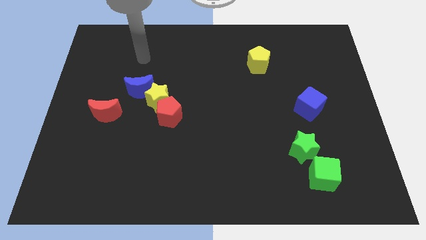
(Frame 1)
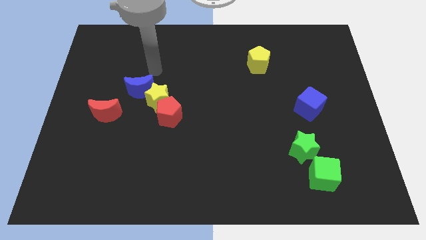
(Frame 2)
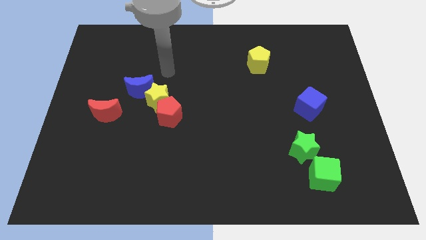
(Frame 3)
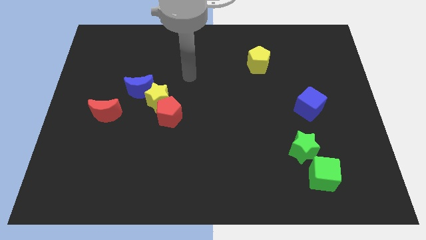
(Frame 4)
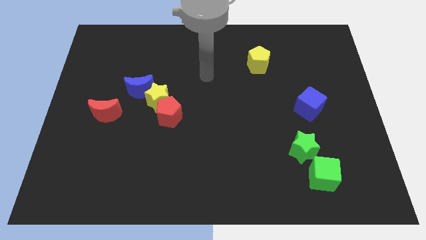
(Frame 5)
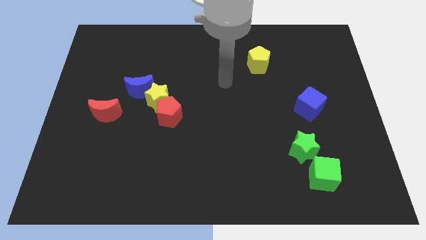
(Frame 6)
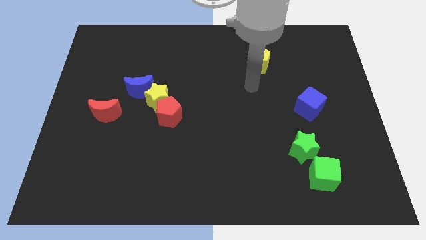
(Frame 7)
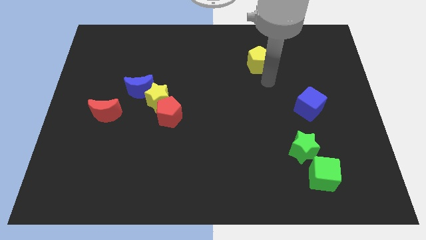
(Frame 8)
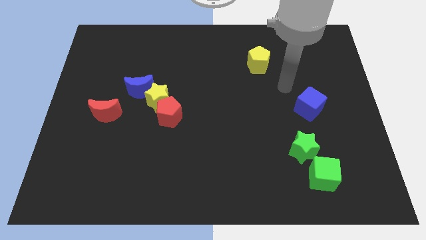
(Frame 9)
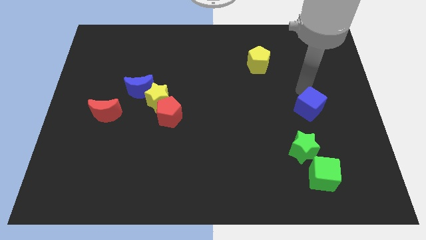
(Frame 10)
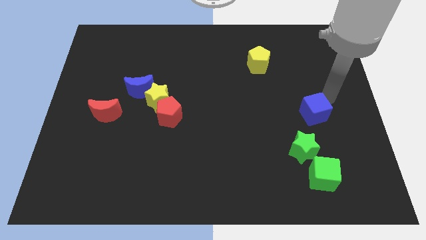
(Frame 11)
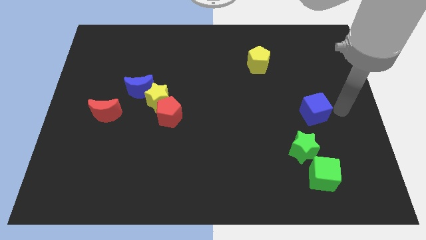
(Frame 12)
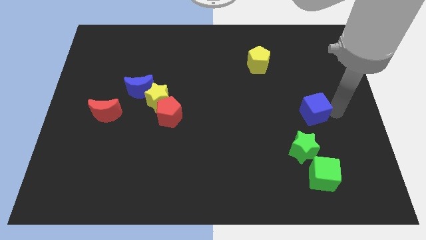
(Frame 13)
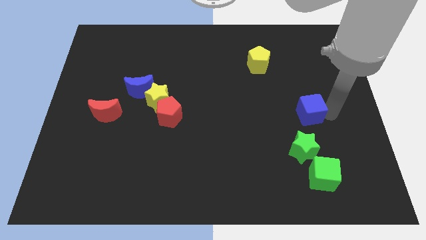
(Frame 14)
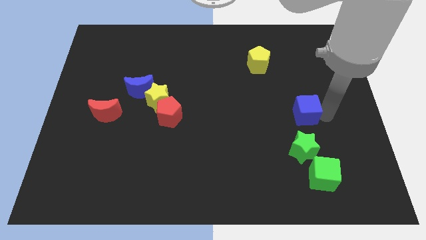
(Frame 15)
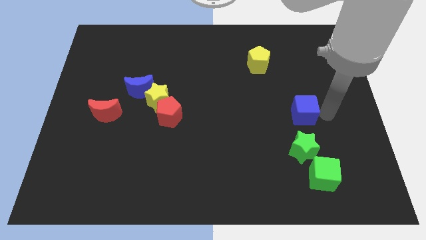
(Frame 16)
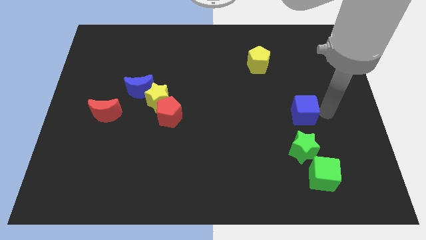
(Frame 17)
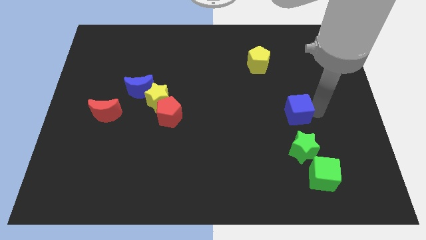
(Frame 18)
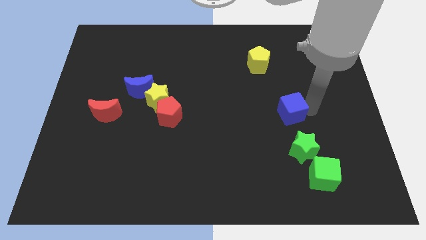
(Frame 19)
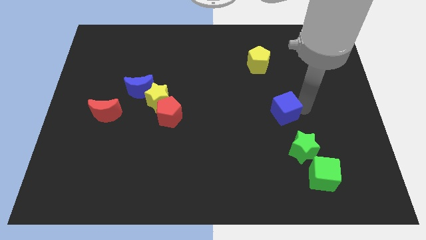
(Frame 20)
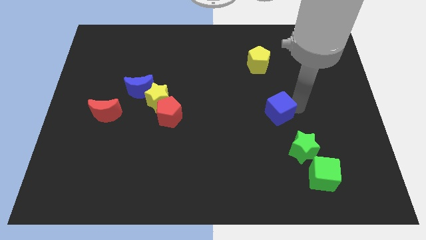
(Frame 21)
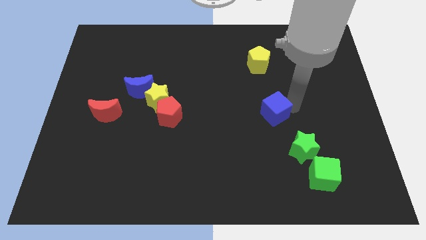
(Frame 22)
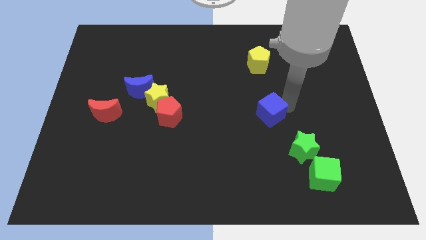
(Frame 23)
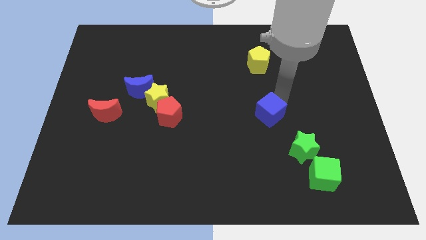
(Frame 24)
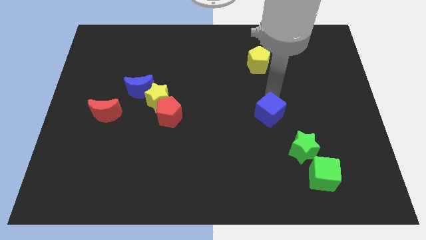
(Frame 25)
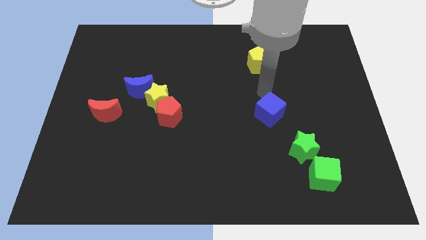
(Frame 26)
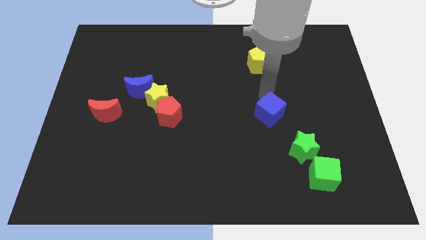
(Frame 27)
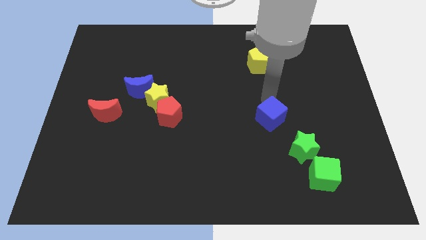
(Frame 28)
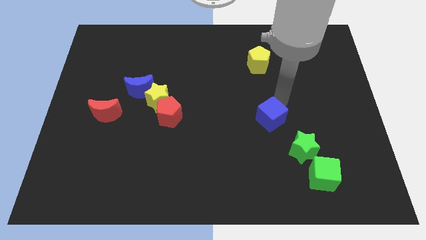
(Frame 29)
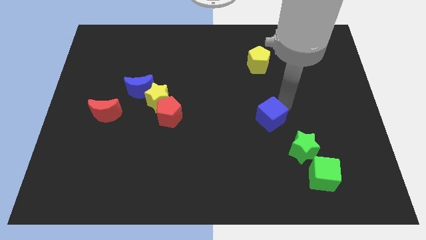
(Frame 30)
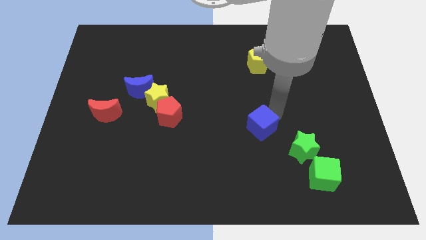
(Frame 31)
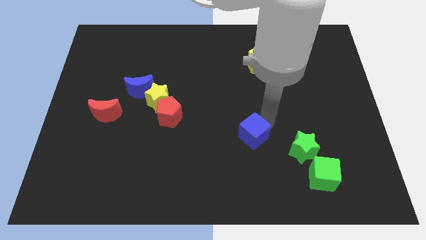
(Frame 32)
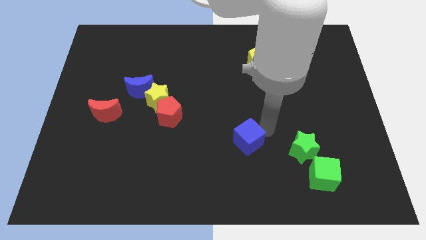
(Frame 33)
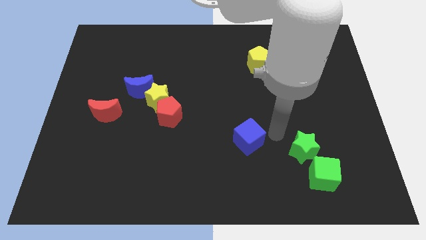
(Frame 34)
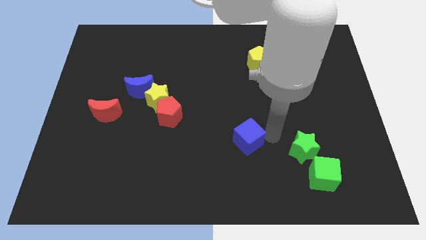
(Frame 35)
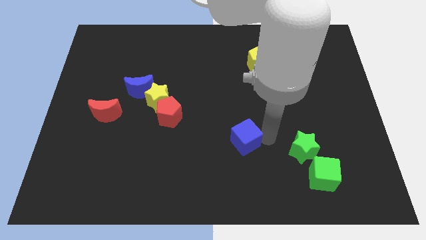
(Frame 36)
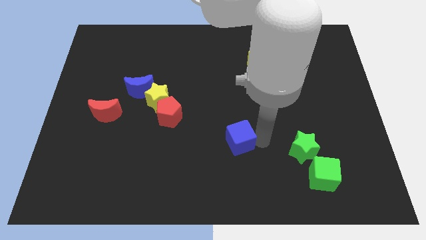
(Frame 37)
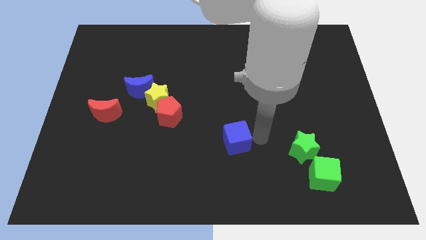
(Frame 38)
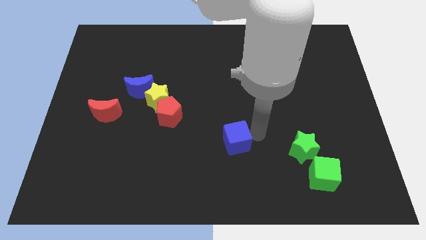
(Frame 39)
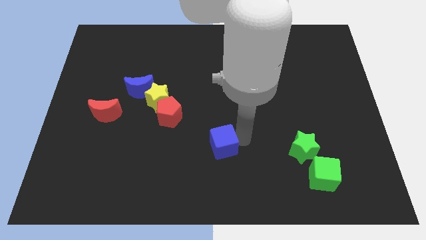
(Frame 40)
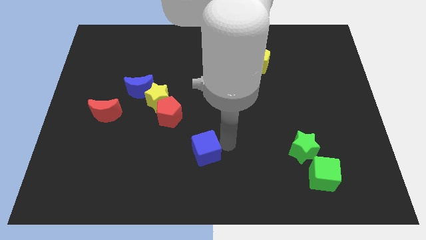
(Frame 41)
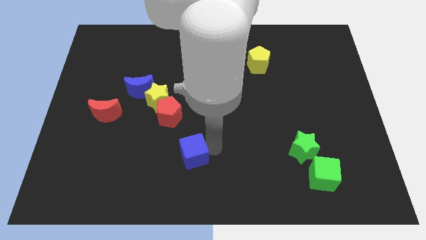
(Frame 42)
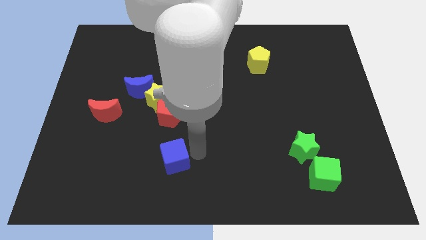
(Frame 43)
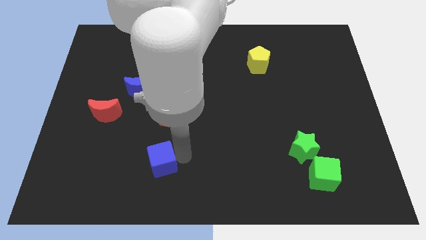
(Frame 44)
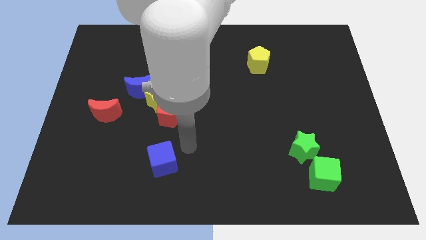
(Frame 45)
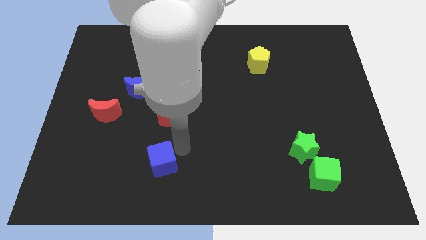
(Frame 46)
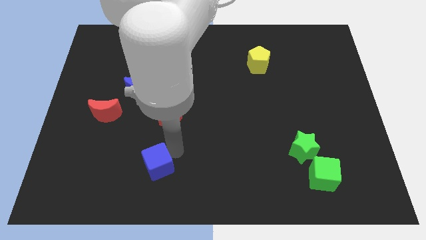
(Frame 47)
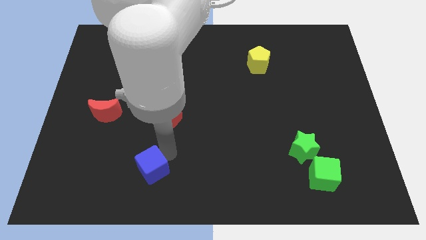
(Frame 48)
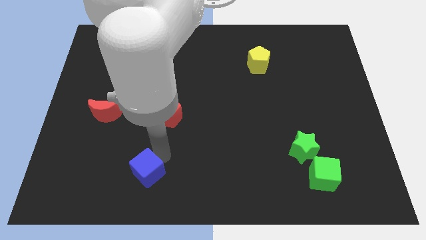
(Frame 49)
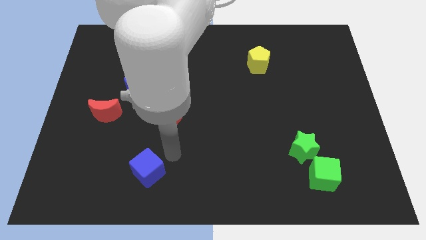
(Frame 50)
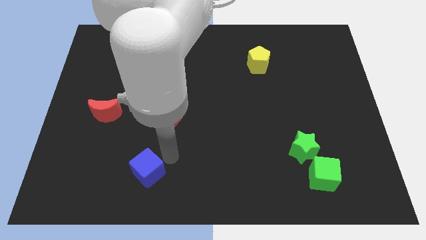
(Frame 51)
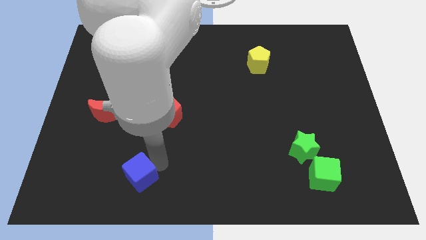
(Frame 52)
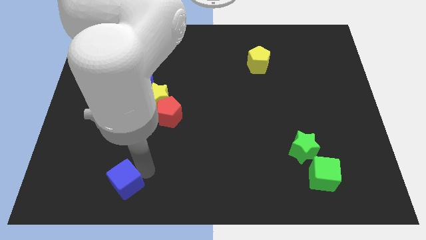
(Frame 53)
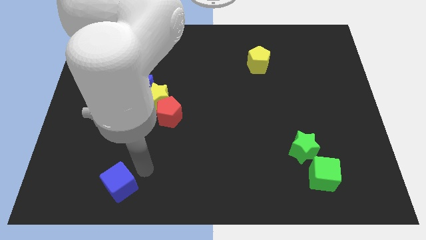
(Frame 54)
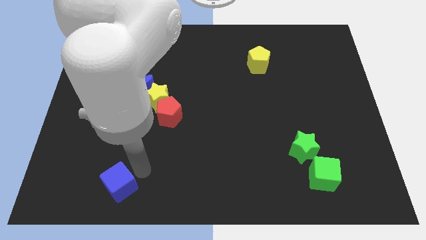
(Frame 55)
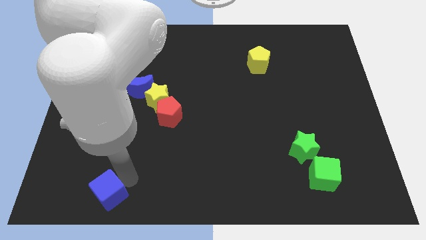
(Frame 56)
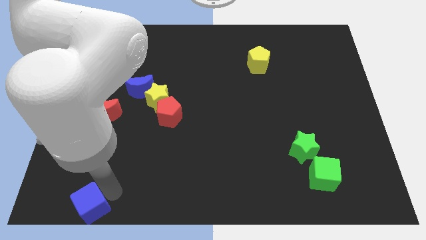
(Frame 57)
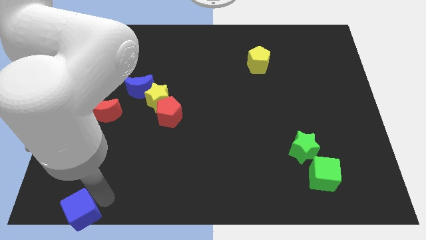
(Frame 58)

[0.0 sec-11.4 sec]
push the blue cube to the bottom left
